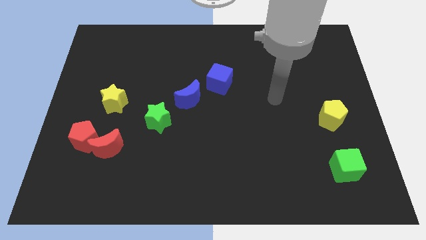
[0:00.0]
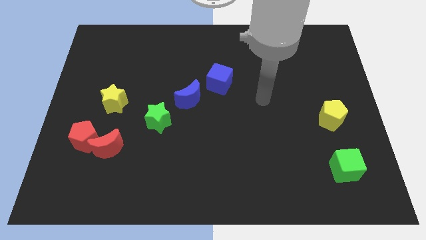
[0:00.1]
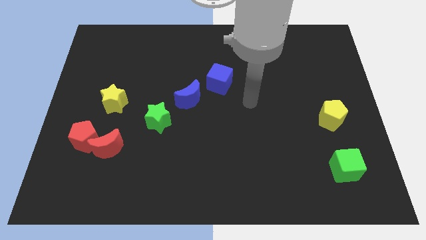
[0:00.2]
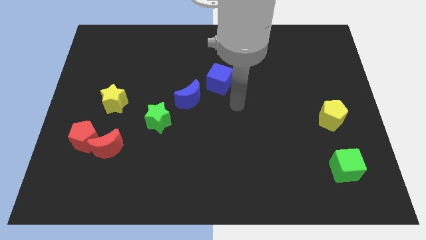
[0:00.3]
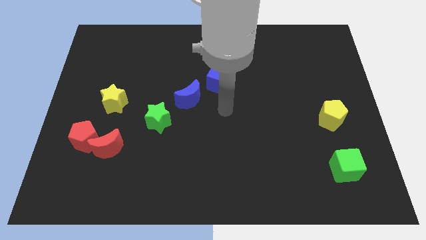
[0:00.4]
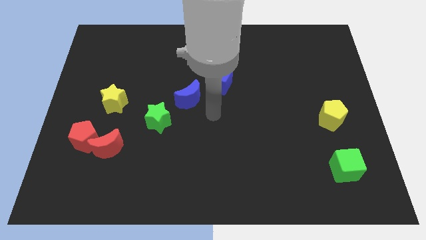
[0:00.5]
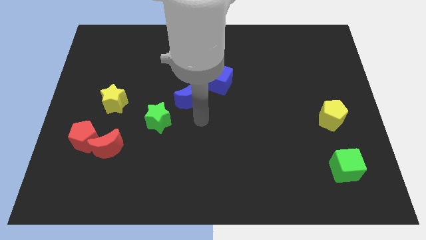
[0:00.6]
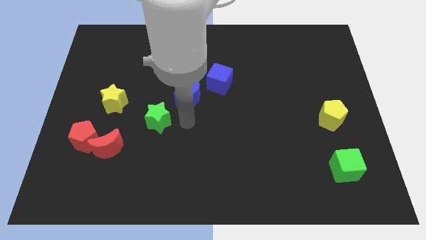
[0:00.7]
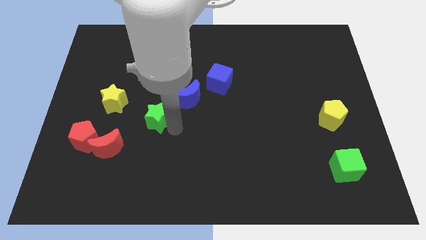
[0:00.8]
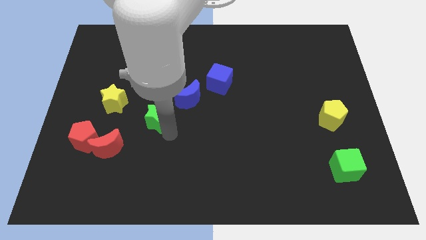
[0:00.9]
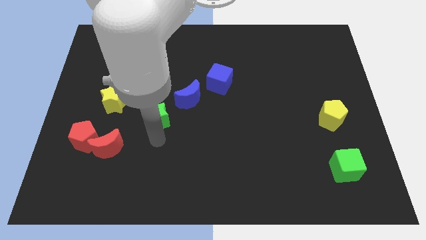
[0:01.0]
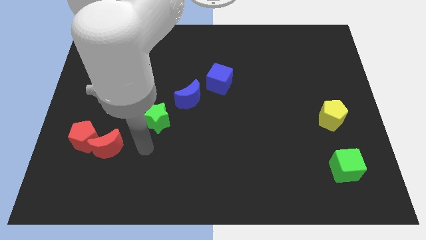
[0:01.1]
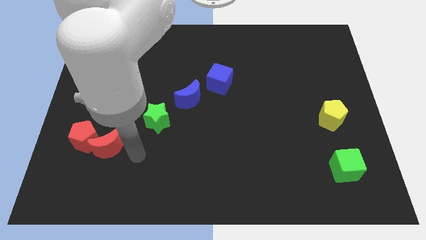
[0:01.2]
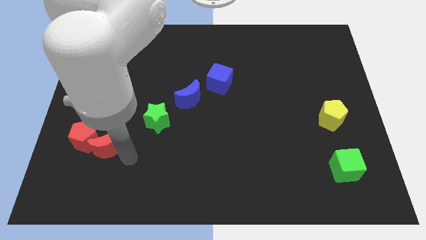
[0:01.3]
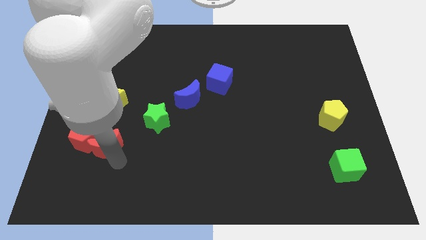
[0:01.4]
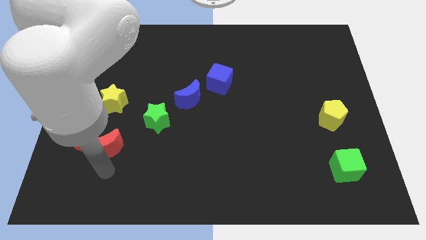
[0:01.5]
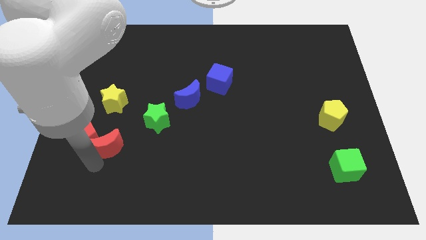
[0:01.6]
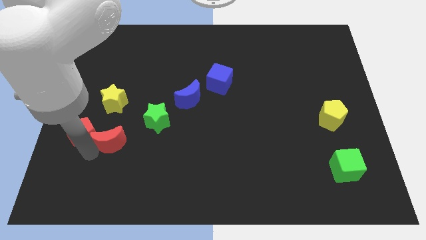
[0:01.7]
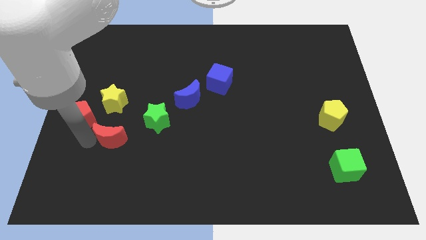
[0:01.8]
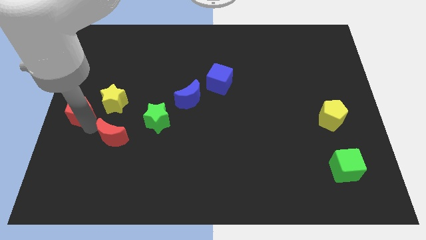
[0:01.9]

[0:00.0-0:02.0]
move the red moon away from the red pentagon

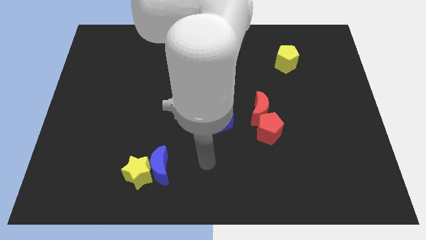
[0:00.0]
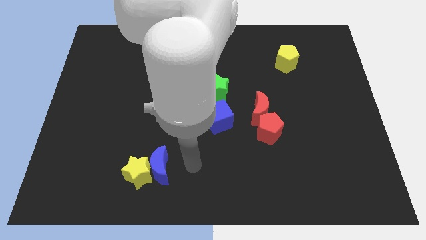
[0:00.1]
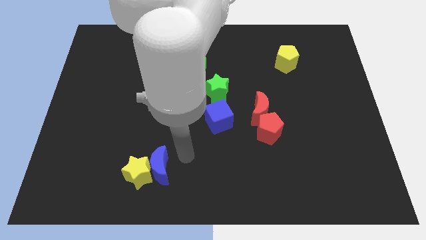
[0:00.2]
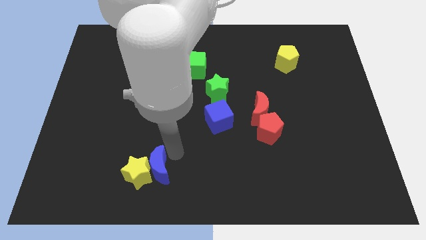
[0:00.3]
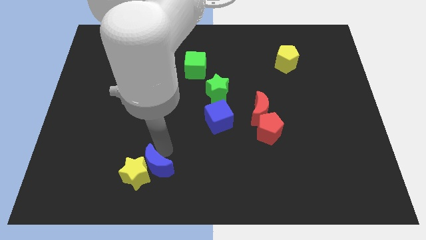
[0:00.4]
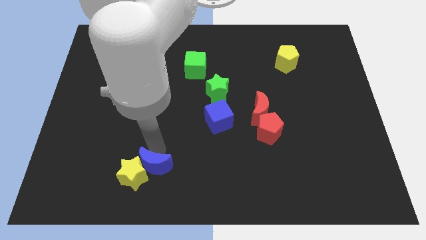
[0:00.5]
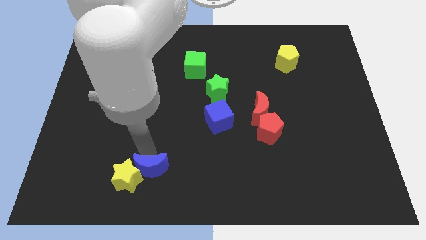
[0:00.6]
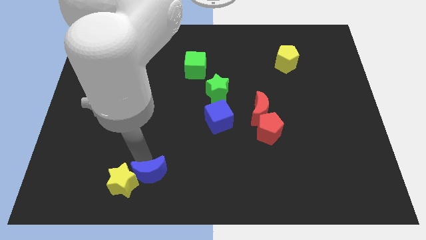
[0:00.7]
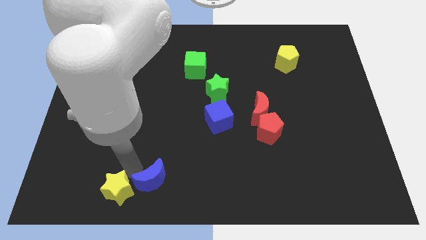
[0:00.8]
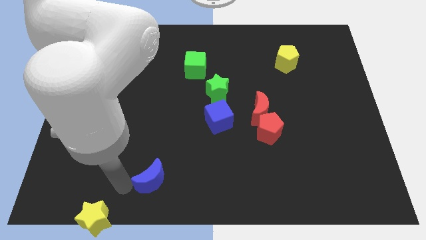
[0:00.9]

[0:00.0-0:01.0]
move the blue moon away from the yellow star

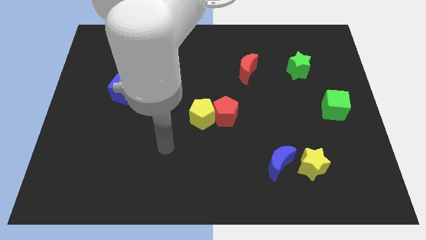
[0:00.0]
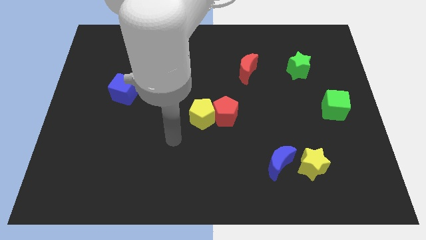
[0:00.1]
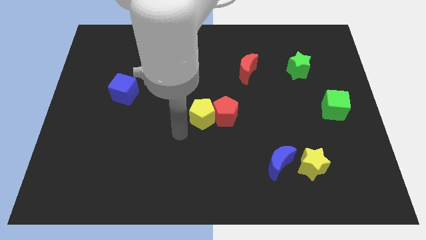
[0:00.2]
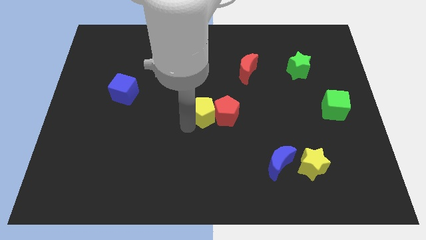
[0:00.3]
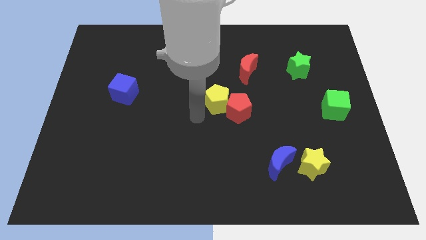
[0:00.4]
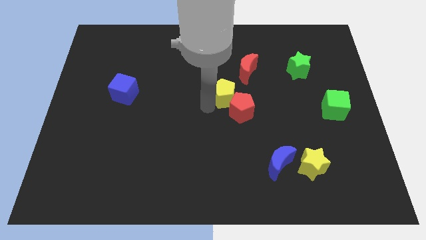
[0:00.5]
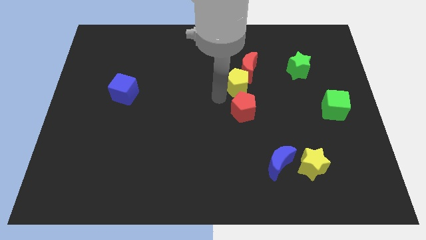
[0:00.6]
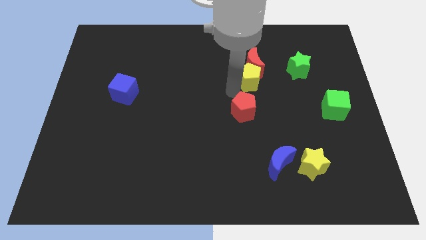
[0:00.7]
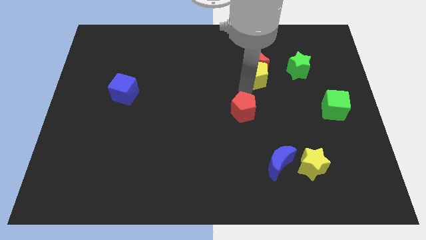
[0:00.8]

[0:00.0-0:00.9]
separate the red pentagon from the yellow pentagon

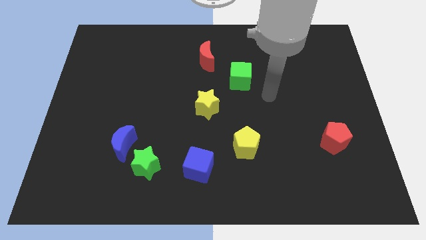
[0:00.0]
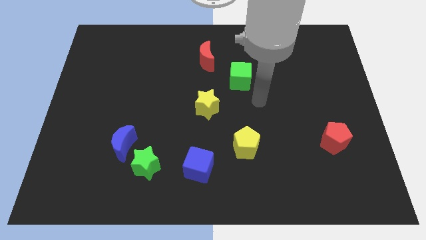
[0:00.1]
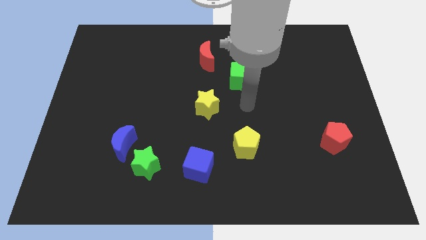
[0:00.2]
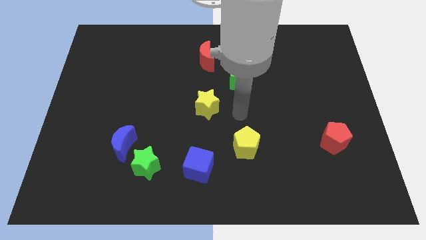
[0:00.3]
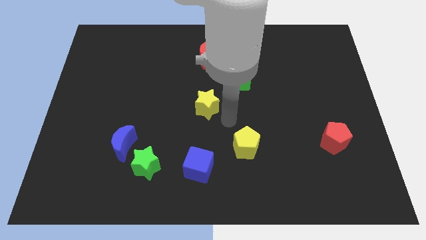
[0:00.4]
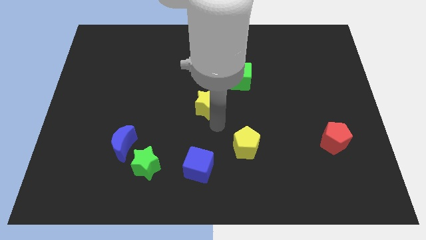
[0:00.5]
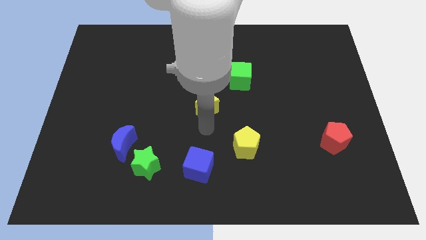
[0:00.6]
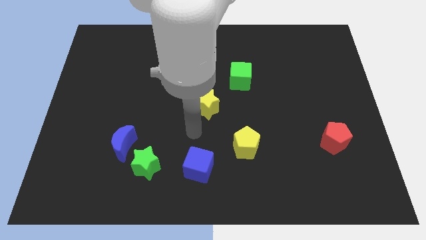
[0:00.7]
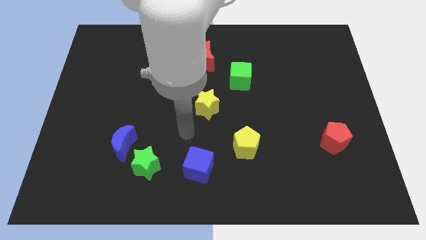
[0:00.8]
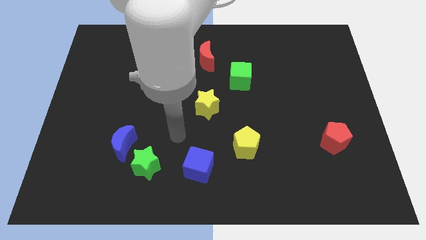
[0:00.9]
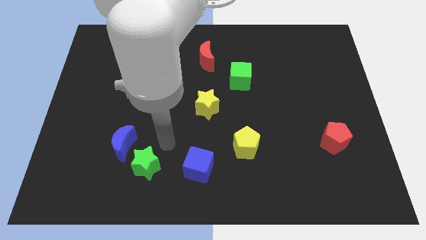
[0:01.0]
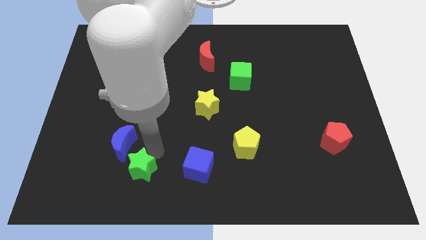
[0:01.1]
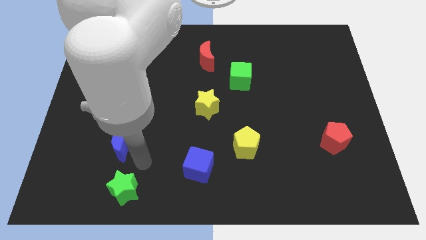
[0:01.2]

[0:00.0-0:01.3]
move the blue moon away from the green star

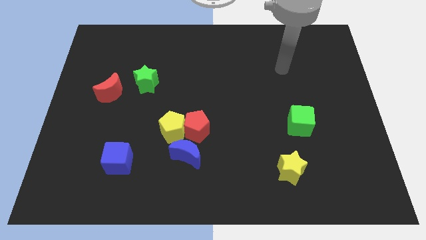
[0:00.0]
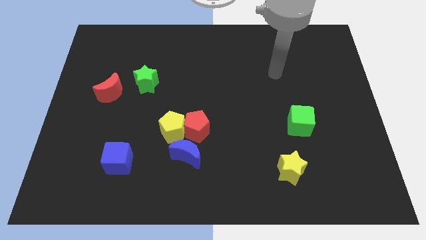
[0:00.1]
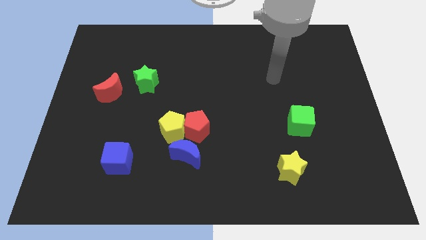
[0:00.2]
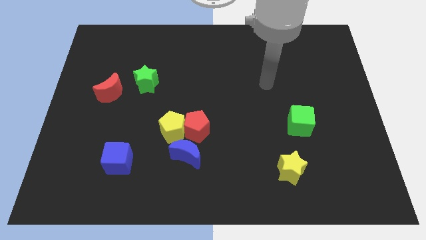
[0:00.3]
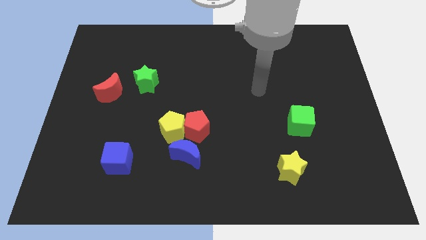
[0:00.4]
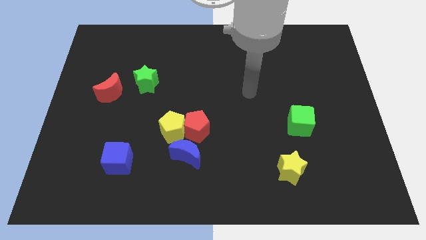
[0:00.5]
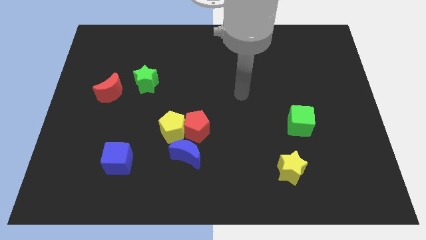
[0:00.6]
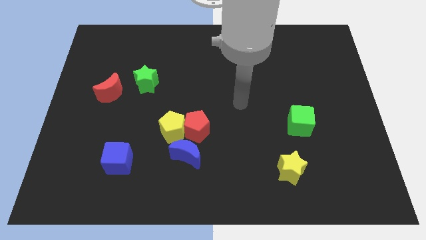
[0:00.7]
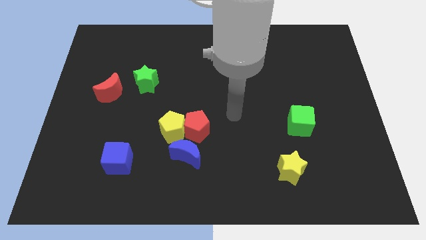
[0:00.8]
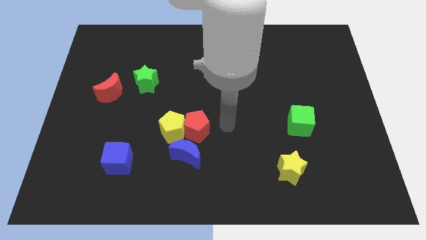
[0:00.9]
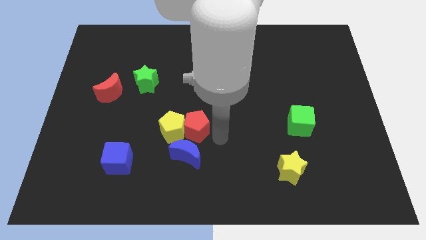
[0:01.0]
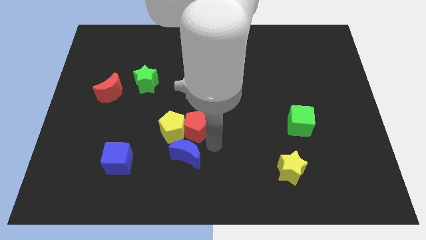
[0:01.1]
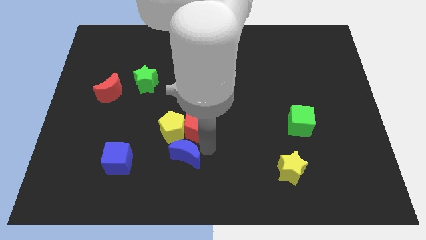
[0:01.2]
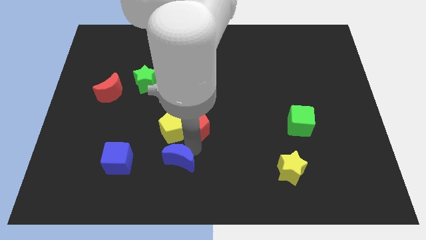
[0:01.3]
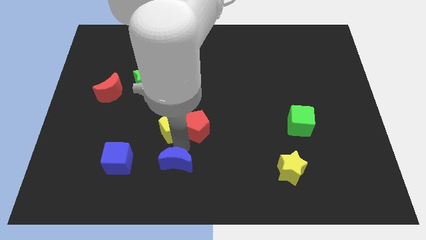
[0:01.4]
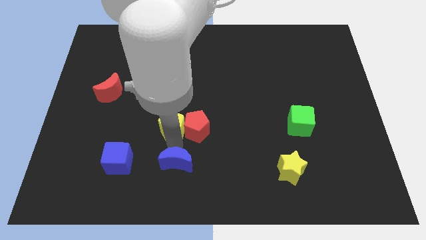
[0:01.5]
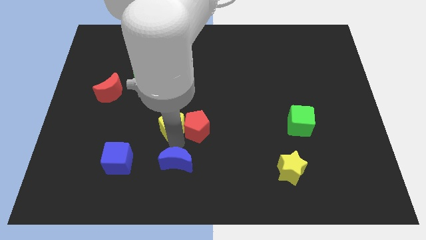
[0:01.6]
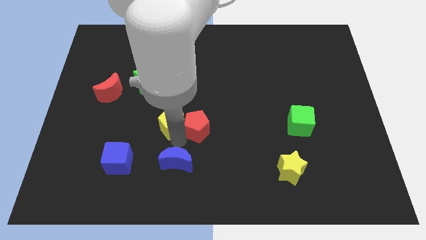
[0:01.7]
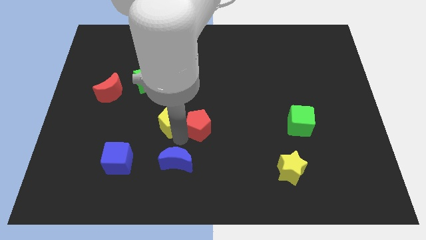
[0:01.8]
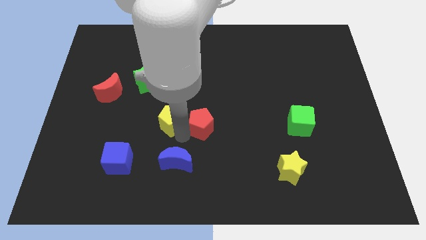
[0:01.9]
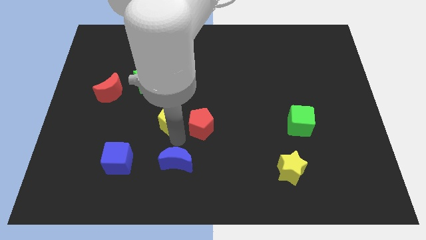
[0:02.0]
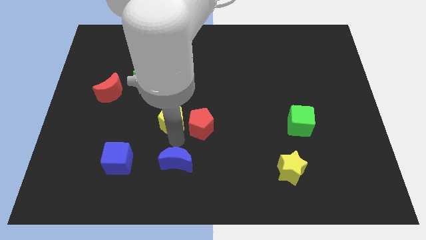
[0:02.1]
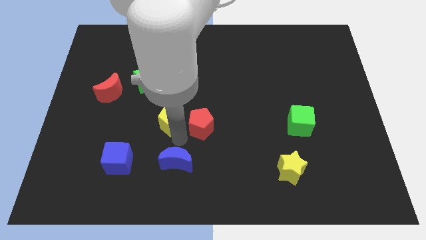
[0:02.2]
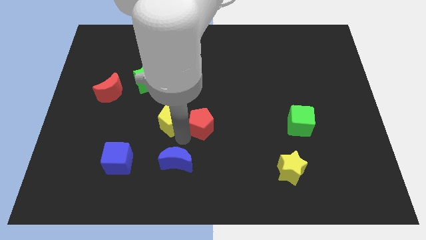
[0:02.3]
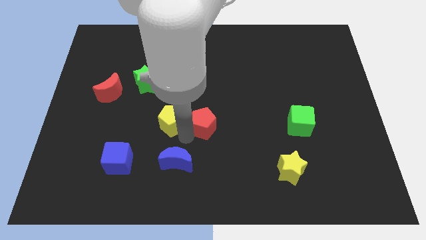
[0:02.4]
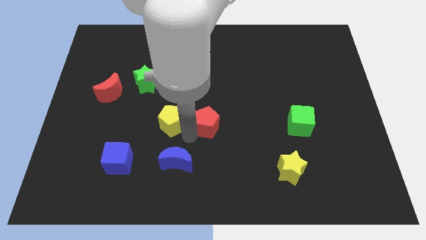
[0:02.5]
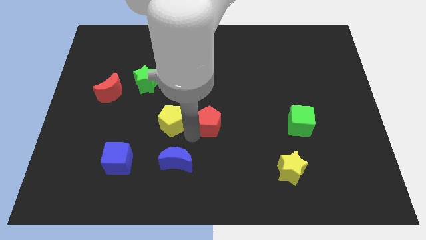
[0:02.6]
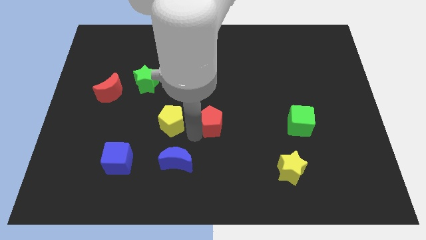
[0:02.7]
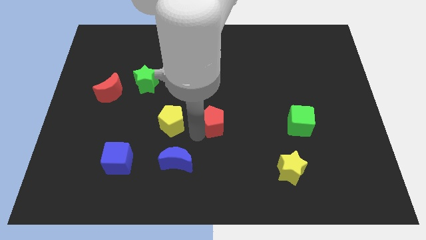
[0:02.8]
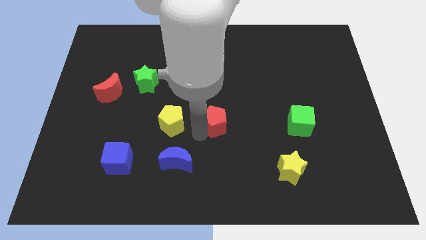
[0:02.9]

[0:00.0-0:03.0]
pull the red pentagon apart from the yellow pentagon and blue moon

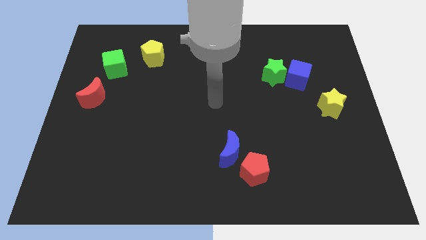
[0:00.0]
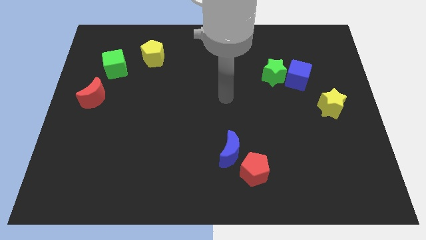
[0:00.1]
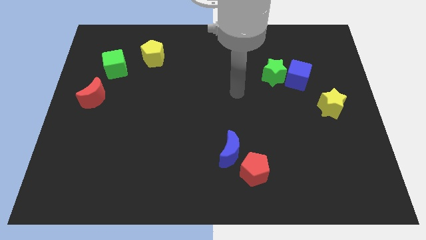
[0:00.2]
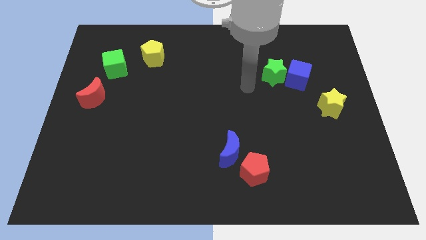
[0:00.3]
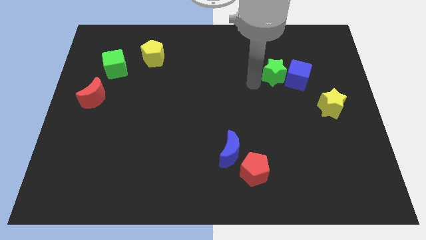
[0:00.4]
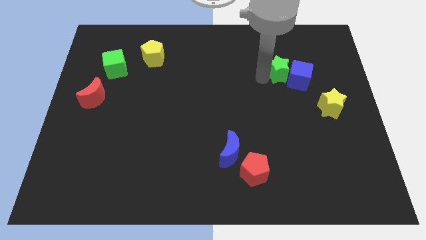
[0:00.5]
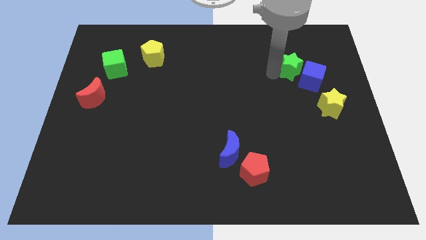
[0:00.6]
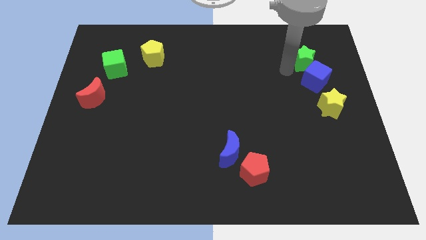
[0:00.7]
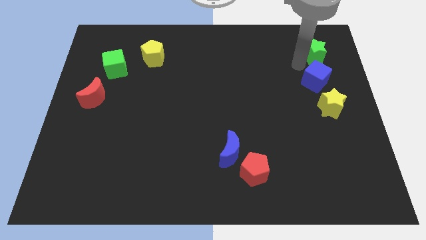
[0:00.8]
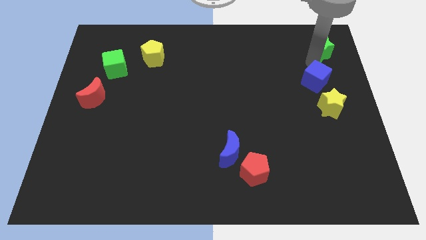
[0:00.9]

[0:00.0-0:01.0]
separate the blue cube from the green star
